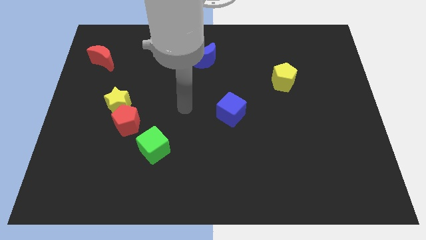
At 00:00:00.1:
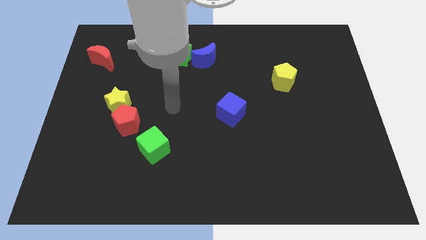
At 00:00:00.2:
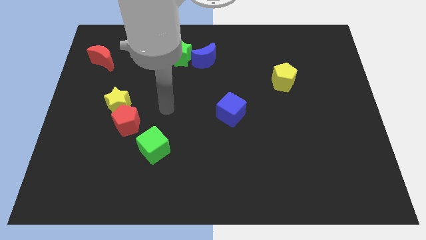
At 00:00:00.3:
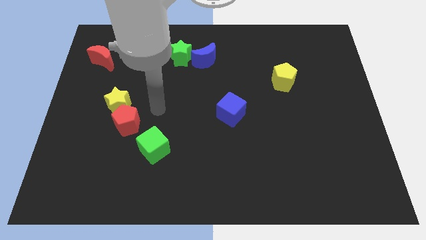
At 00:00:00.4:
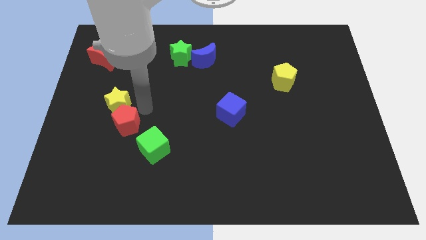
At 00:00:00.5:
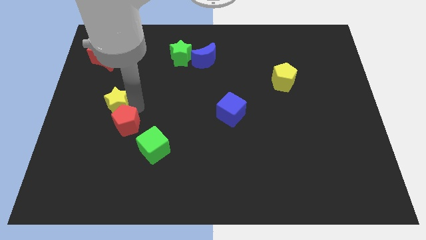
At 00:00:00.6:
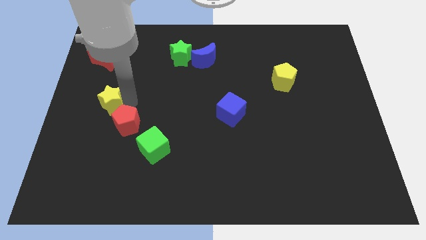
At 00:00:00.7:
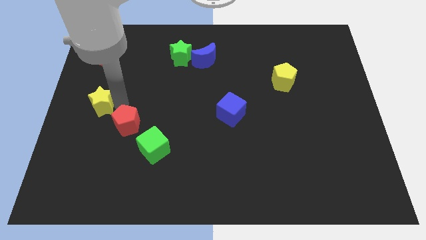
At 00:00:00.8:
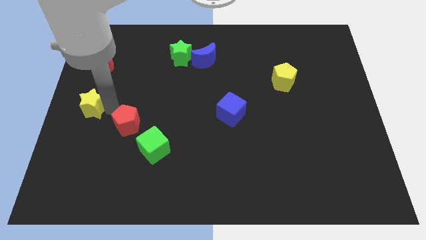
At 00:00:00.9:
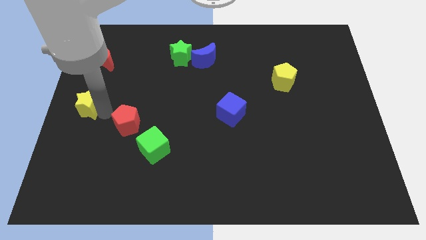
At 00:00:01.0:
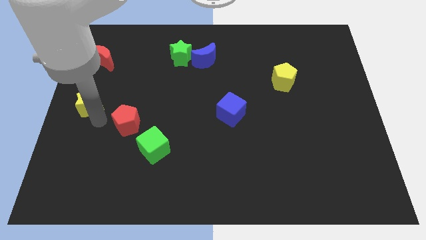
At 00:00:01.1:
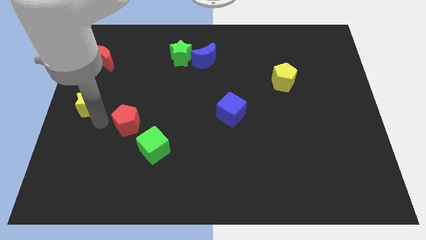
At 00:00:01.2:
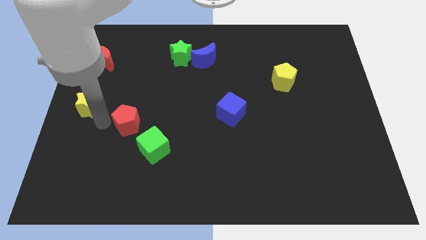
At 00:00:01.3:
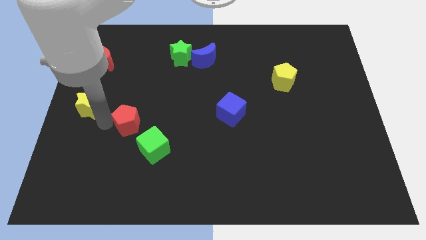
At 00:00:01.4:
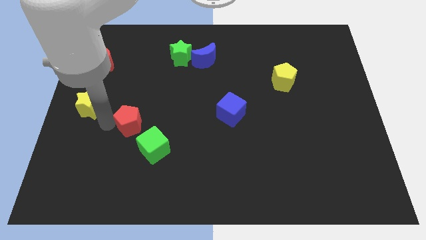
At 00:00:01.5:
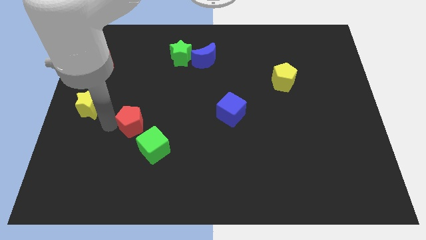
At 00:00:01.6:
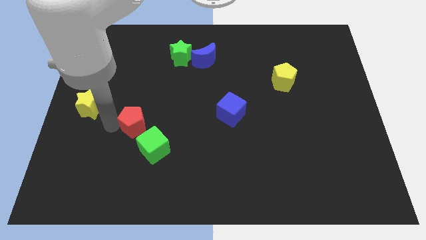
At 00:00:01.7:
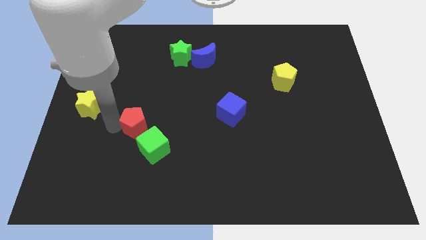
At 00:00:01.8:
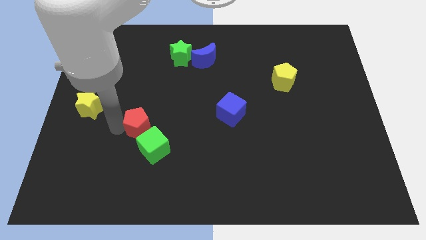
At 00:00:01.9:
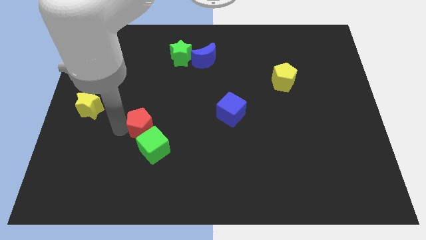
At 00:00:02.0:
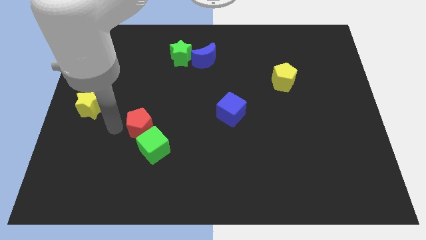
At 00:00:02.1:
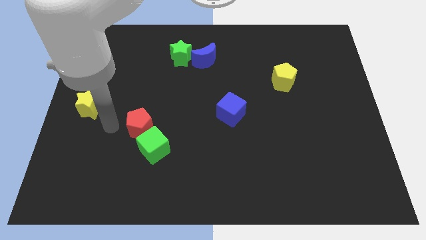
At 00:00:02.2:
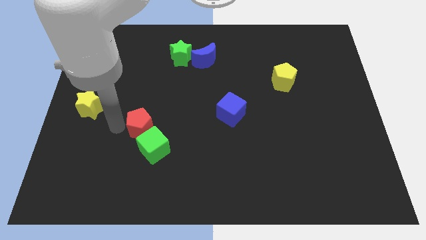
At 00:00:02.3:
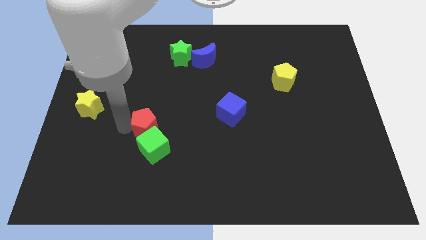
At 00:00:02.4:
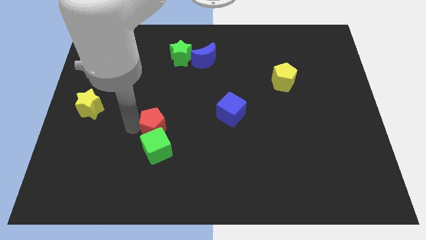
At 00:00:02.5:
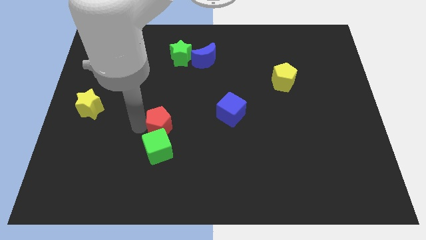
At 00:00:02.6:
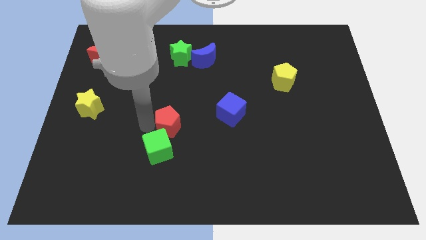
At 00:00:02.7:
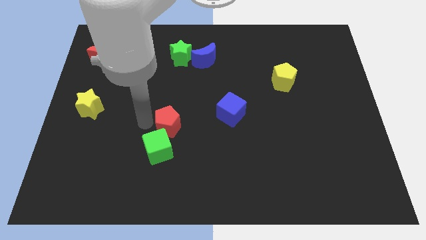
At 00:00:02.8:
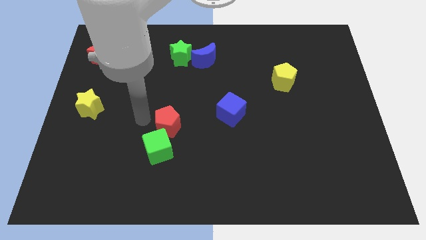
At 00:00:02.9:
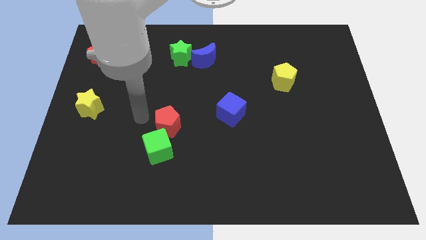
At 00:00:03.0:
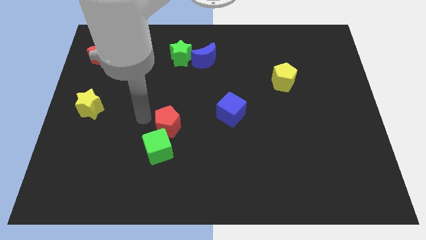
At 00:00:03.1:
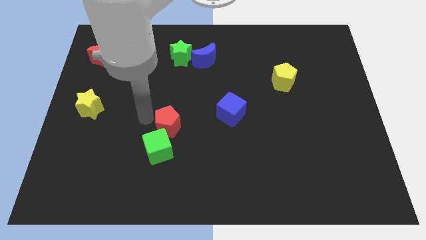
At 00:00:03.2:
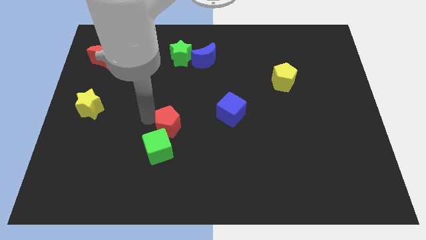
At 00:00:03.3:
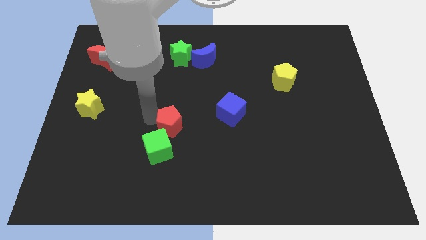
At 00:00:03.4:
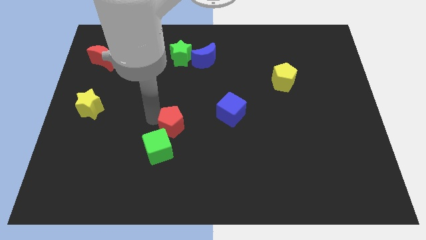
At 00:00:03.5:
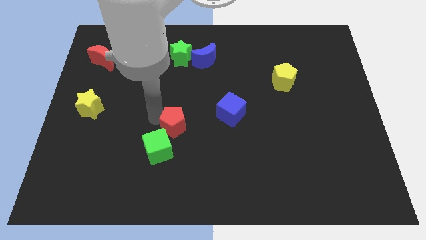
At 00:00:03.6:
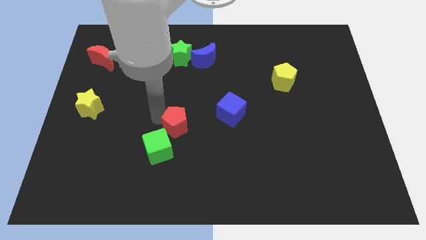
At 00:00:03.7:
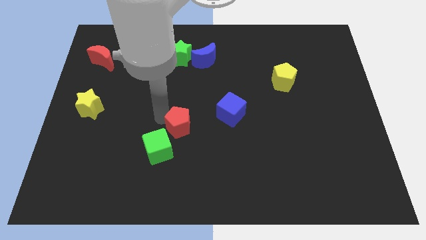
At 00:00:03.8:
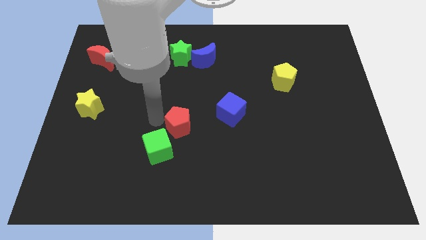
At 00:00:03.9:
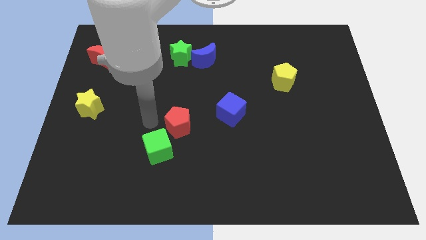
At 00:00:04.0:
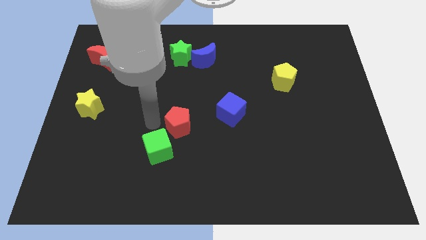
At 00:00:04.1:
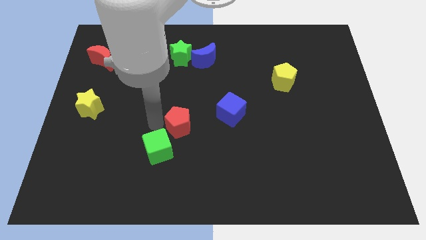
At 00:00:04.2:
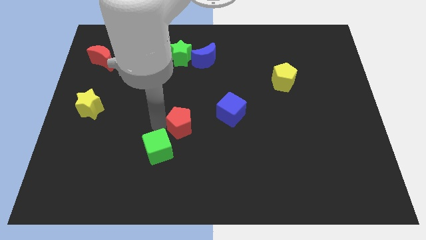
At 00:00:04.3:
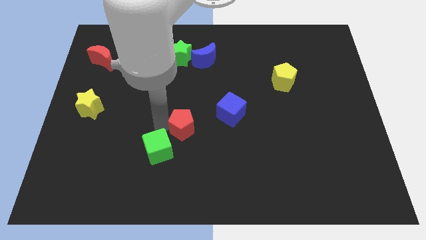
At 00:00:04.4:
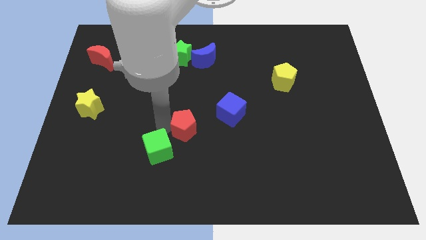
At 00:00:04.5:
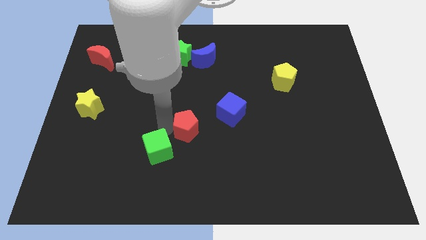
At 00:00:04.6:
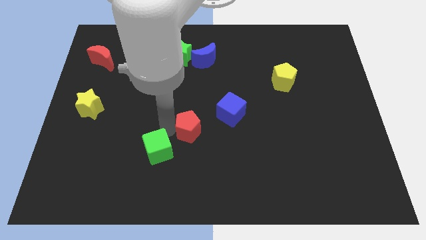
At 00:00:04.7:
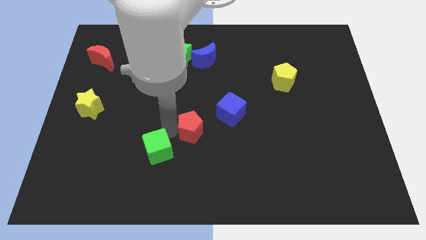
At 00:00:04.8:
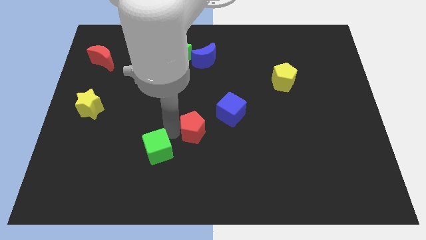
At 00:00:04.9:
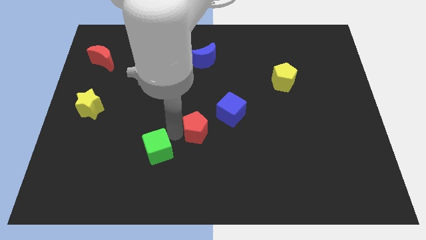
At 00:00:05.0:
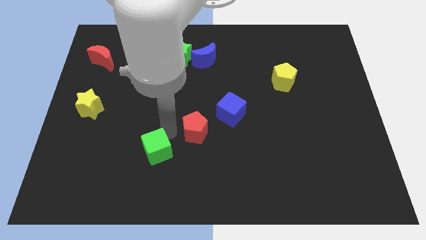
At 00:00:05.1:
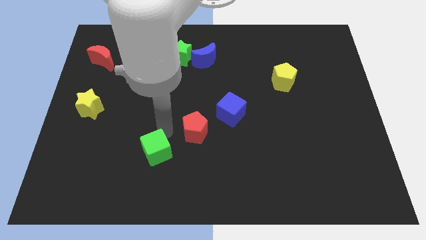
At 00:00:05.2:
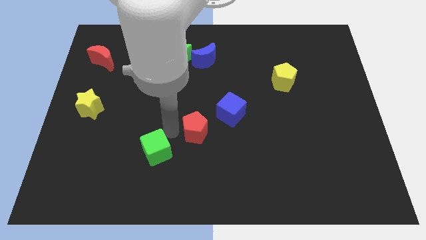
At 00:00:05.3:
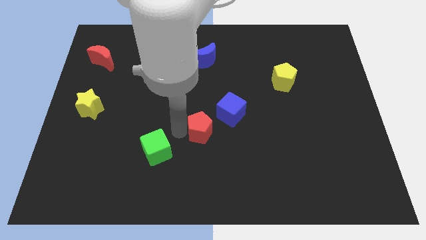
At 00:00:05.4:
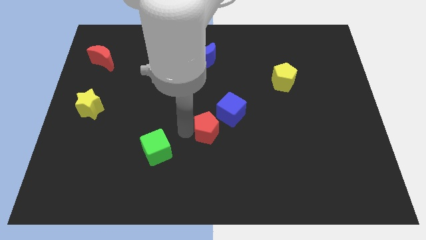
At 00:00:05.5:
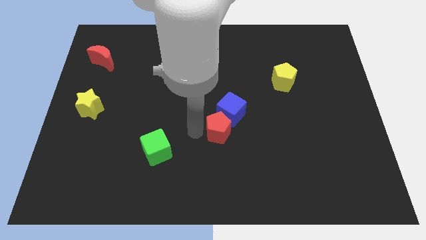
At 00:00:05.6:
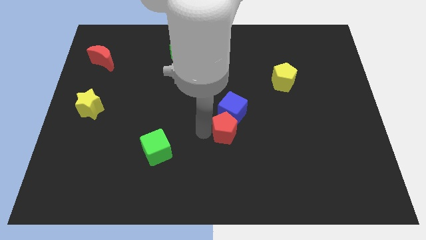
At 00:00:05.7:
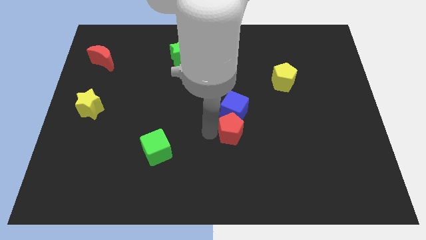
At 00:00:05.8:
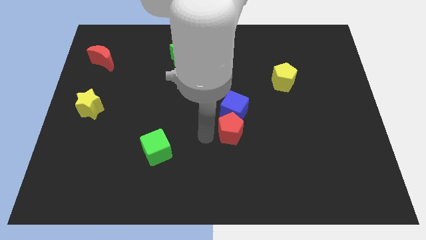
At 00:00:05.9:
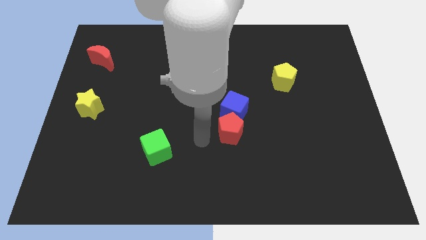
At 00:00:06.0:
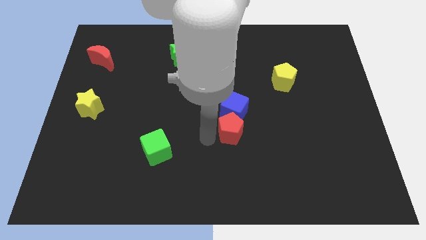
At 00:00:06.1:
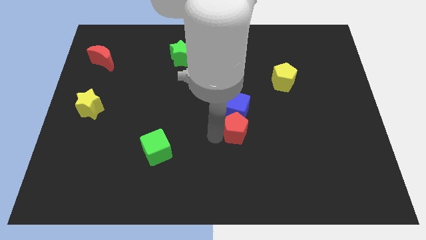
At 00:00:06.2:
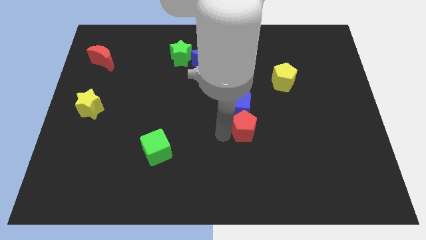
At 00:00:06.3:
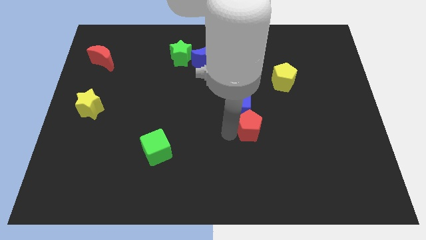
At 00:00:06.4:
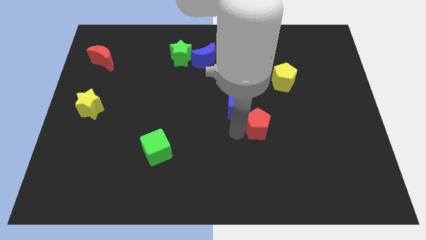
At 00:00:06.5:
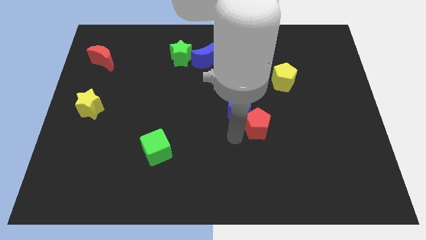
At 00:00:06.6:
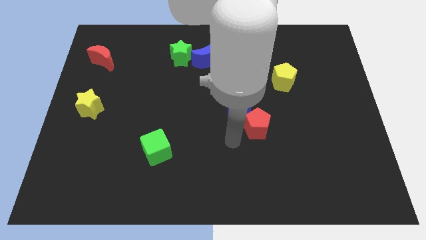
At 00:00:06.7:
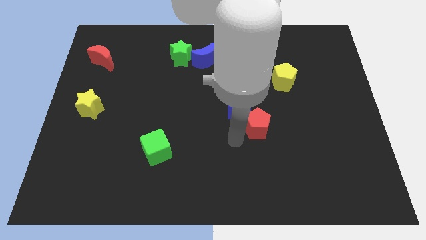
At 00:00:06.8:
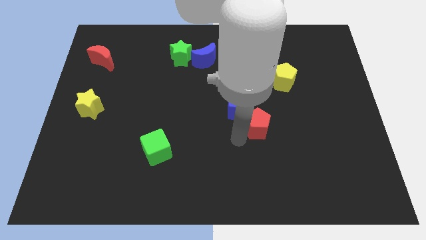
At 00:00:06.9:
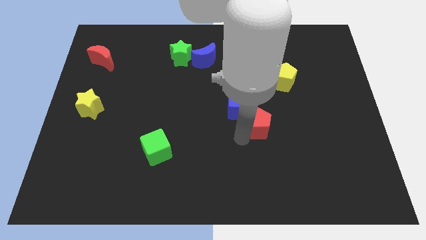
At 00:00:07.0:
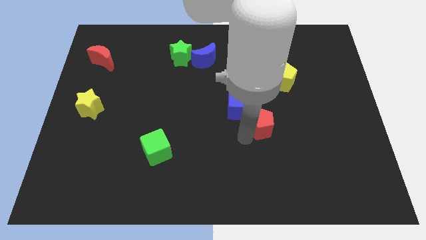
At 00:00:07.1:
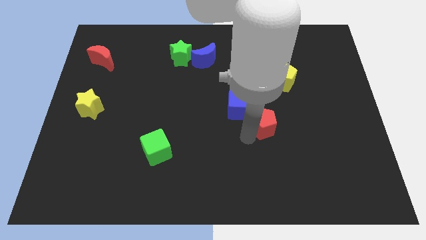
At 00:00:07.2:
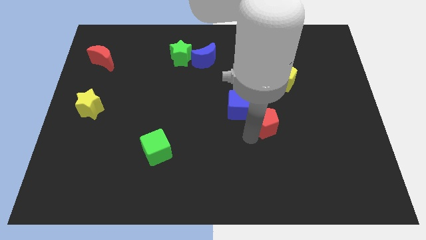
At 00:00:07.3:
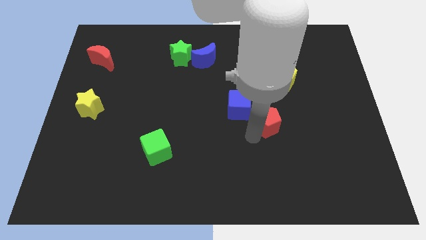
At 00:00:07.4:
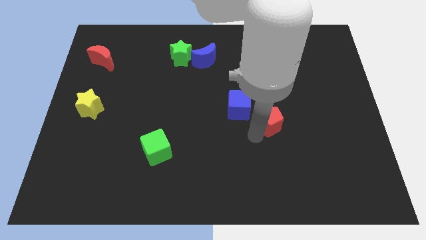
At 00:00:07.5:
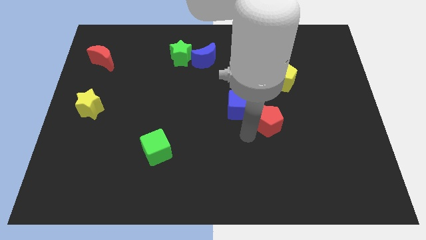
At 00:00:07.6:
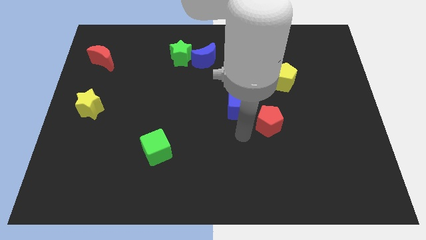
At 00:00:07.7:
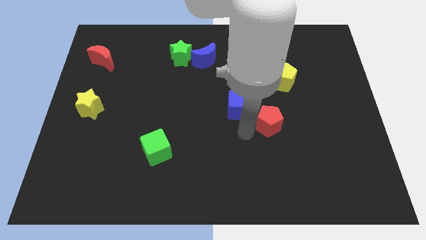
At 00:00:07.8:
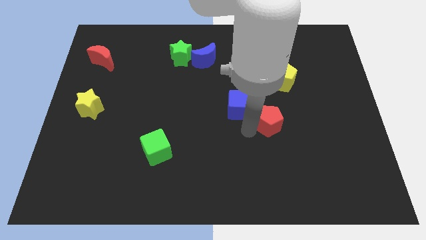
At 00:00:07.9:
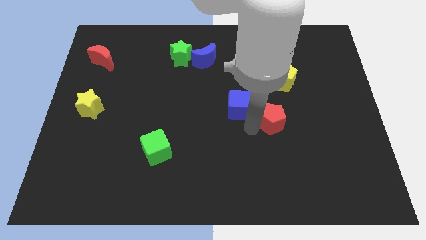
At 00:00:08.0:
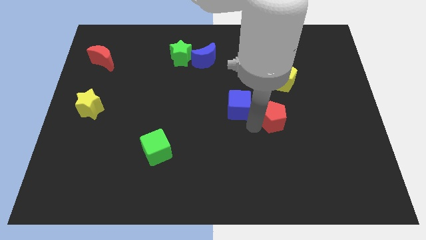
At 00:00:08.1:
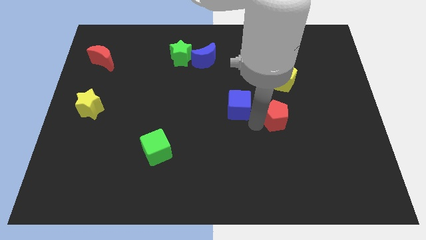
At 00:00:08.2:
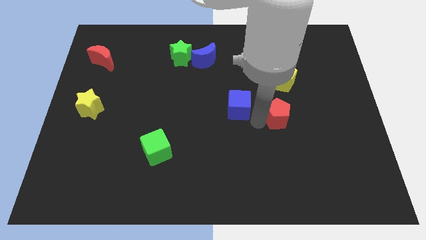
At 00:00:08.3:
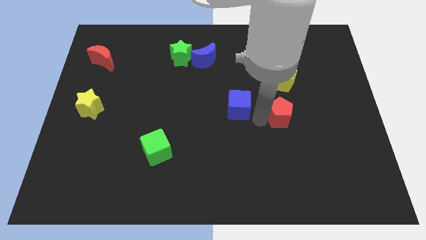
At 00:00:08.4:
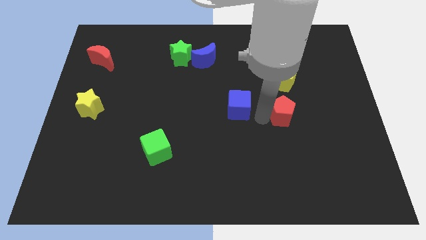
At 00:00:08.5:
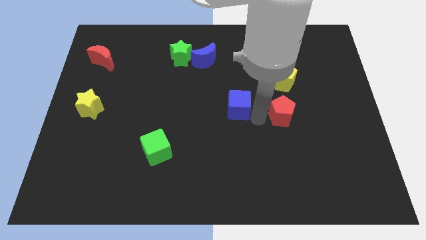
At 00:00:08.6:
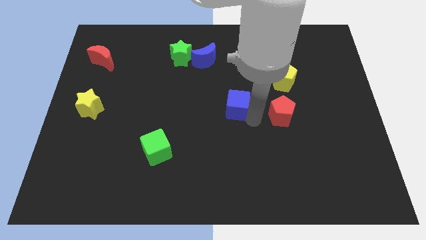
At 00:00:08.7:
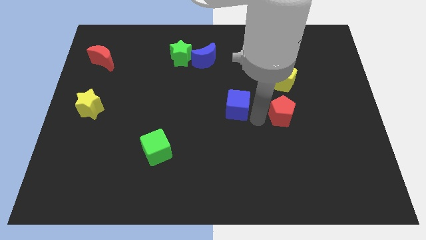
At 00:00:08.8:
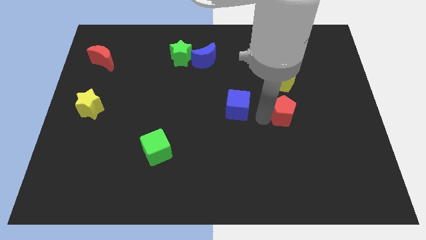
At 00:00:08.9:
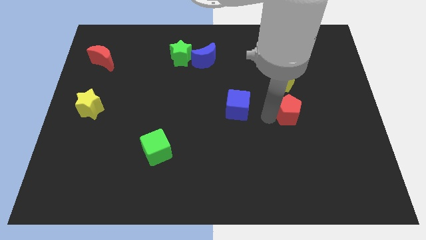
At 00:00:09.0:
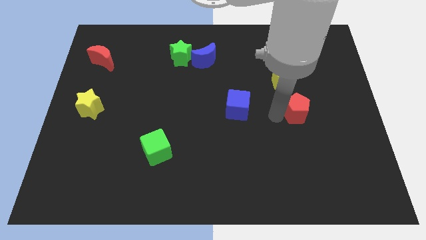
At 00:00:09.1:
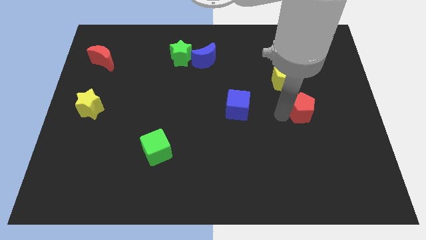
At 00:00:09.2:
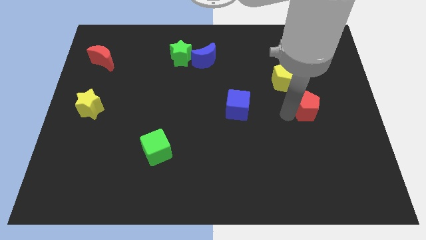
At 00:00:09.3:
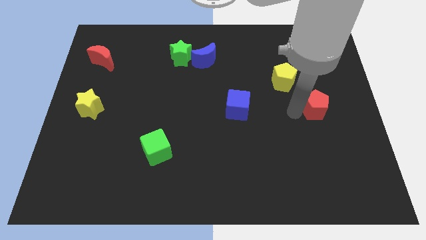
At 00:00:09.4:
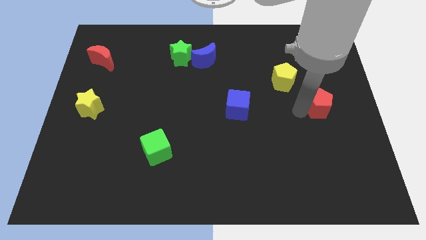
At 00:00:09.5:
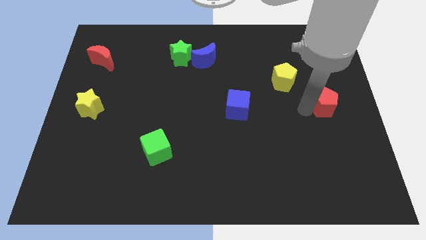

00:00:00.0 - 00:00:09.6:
push the red pentagon to the center right
